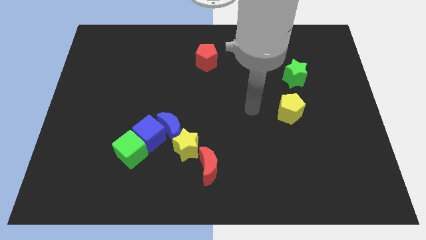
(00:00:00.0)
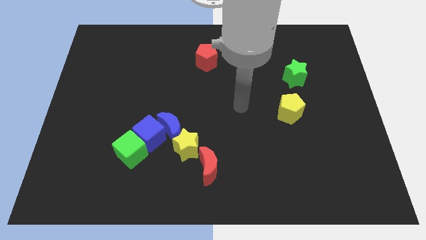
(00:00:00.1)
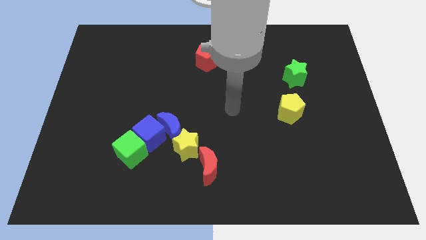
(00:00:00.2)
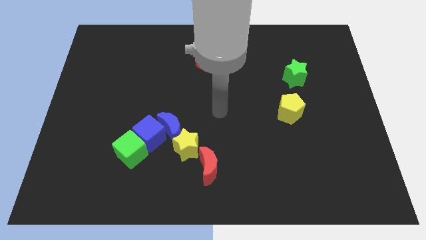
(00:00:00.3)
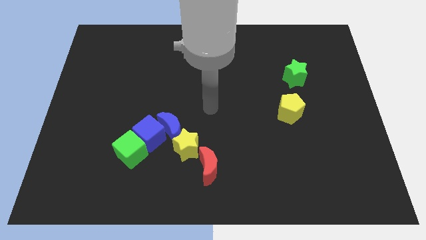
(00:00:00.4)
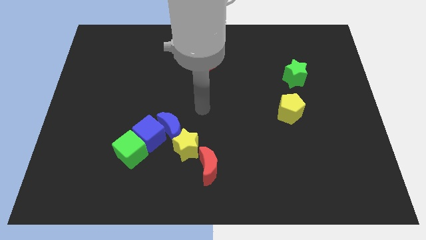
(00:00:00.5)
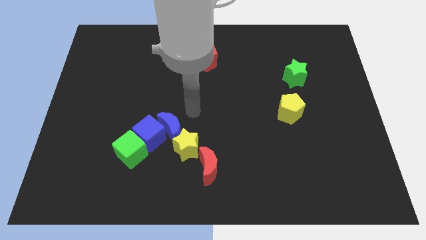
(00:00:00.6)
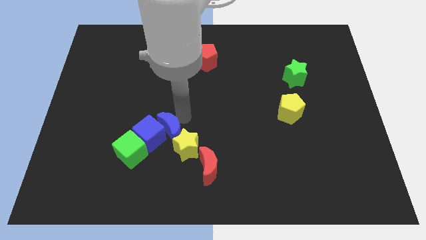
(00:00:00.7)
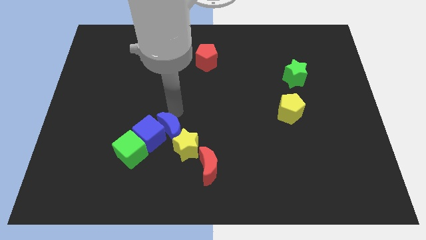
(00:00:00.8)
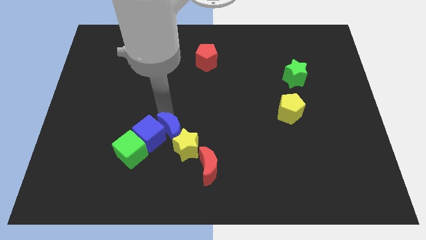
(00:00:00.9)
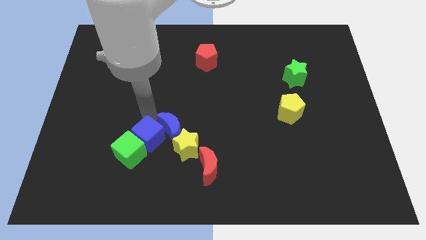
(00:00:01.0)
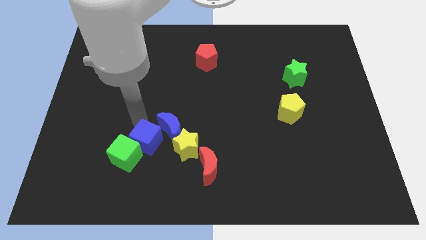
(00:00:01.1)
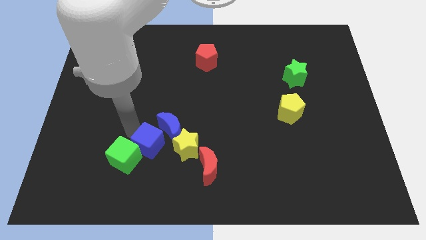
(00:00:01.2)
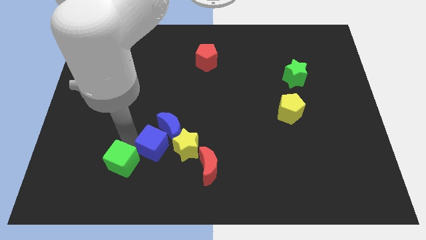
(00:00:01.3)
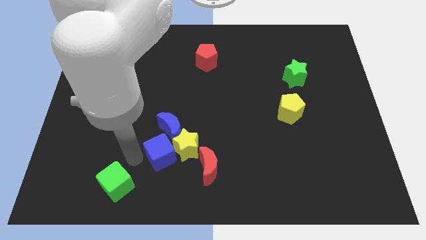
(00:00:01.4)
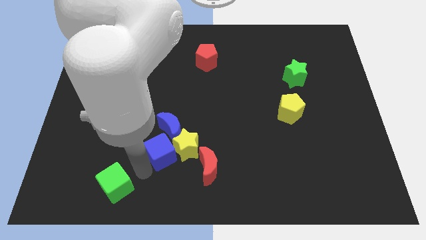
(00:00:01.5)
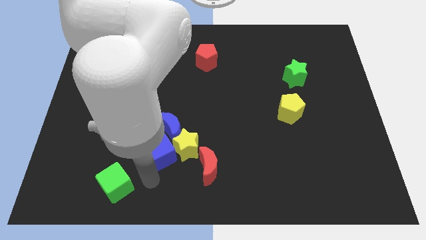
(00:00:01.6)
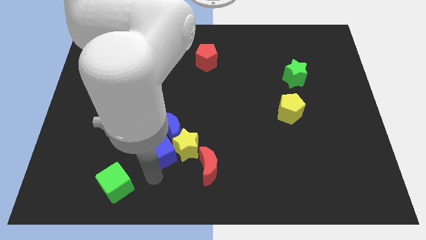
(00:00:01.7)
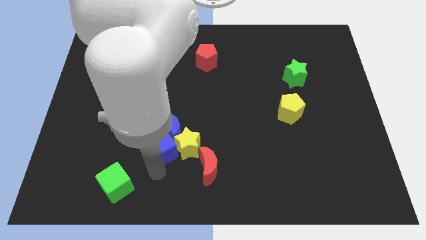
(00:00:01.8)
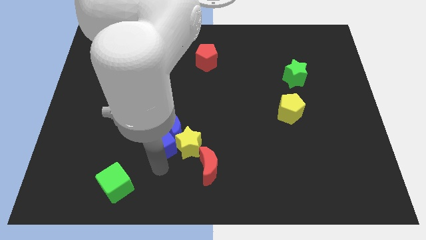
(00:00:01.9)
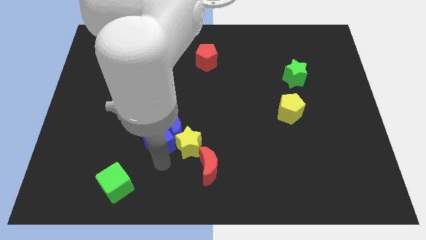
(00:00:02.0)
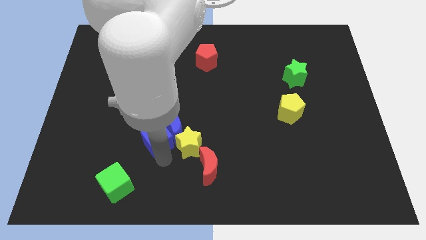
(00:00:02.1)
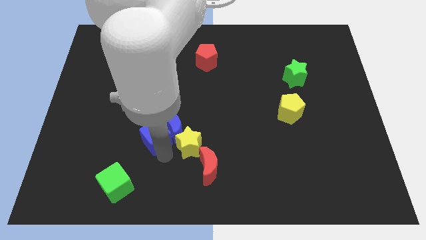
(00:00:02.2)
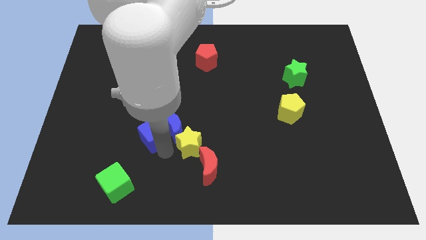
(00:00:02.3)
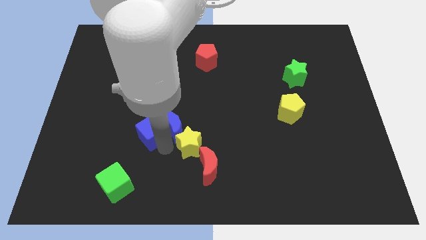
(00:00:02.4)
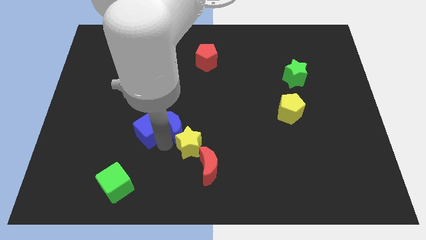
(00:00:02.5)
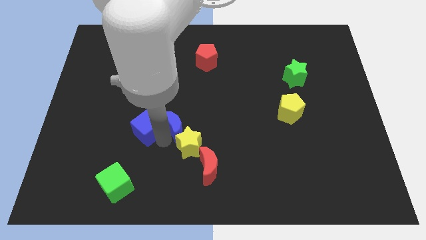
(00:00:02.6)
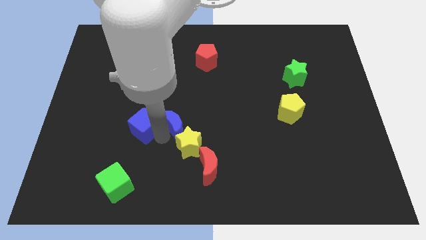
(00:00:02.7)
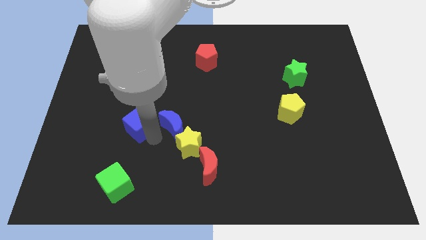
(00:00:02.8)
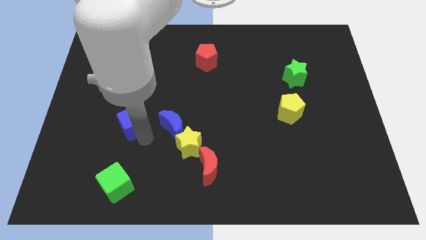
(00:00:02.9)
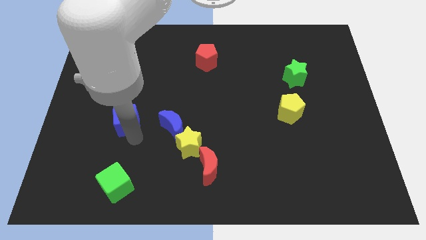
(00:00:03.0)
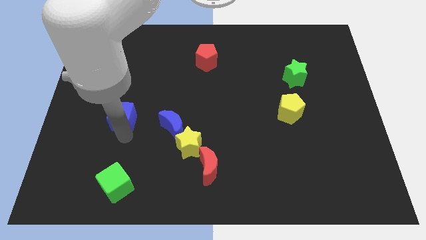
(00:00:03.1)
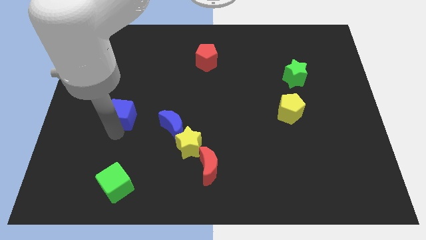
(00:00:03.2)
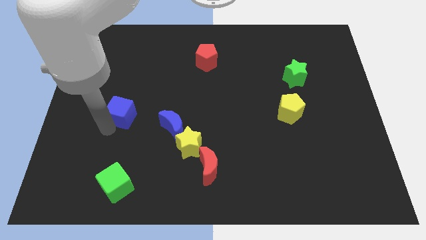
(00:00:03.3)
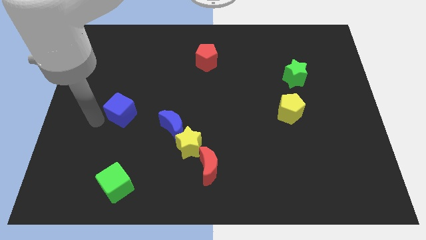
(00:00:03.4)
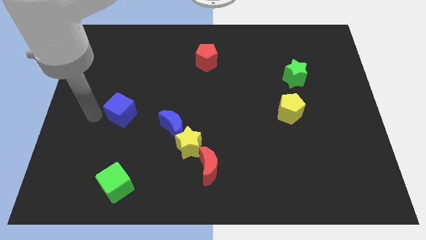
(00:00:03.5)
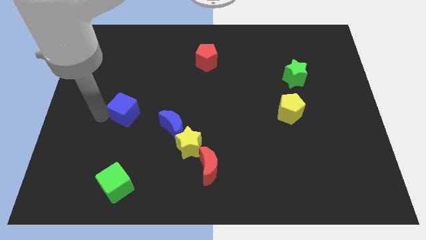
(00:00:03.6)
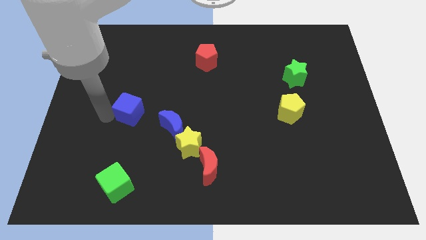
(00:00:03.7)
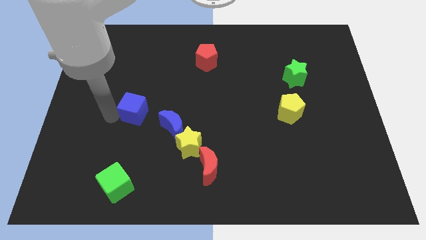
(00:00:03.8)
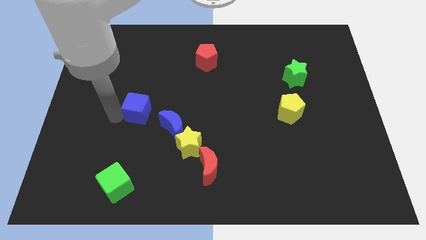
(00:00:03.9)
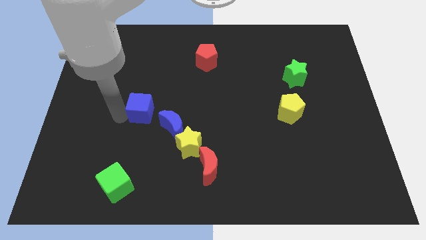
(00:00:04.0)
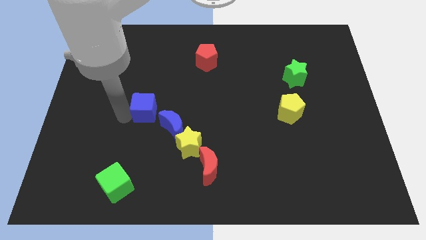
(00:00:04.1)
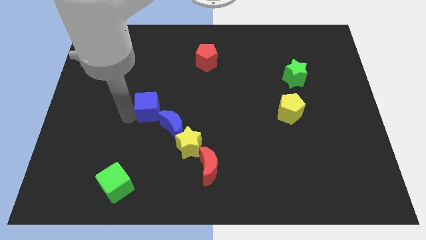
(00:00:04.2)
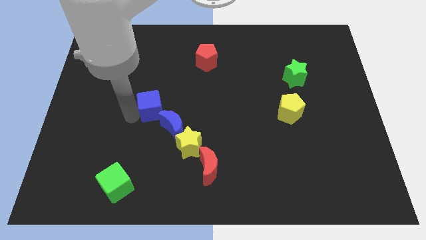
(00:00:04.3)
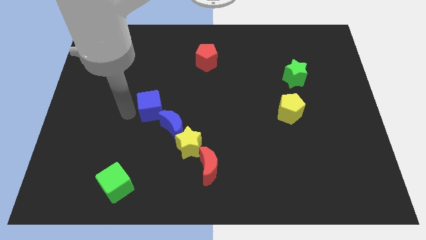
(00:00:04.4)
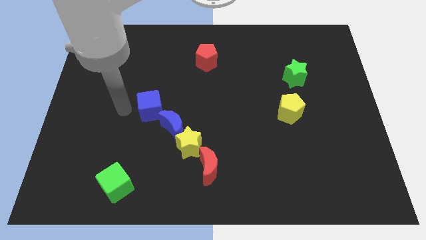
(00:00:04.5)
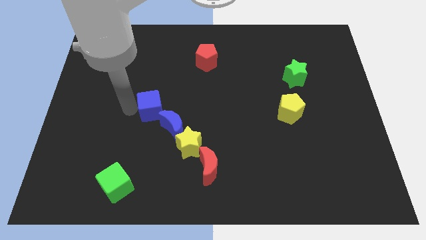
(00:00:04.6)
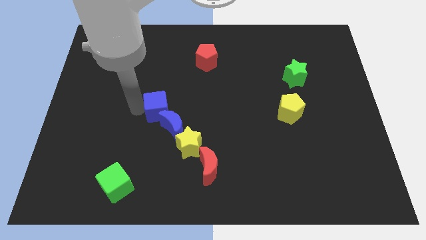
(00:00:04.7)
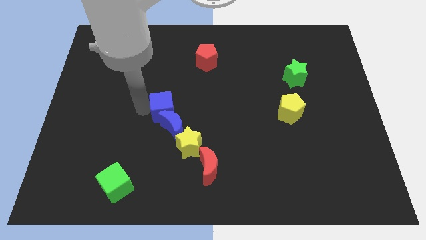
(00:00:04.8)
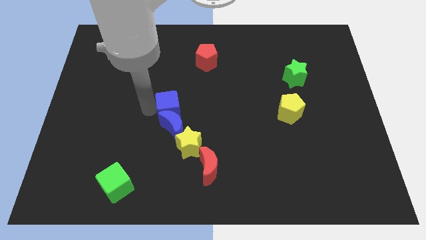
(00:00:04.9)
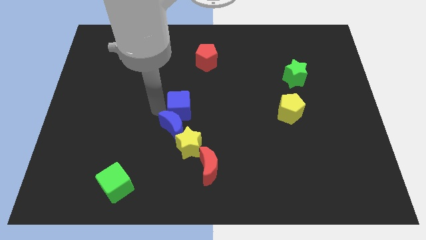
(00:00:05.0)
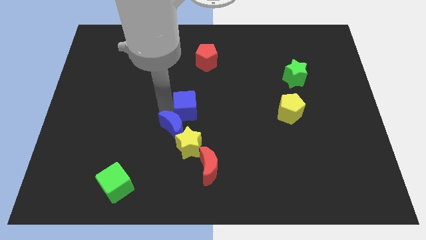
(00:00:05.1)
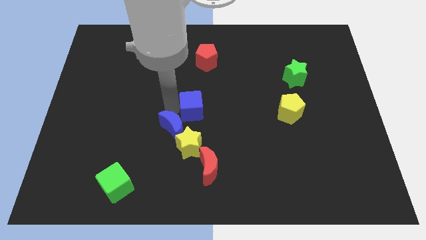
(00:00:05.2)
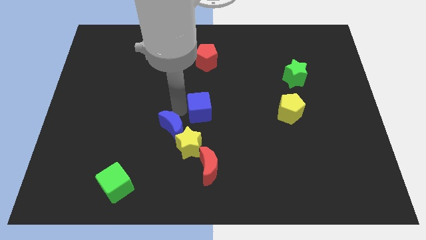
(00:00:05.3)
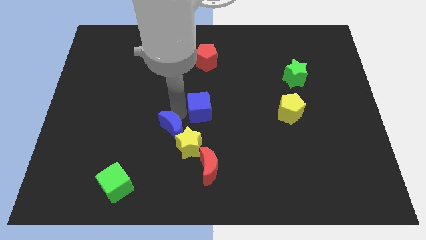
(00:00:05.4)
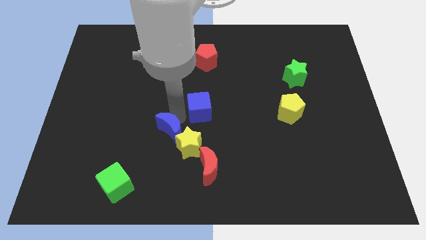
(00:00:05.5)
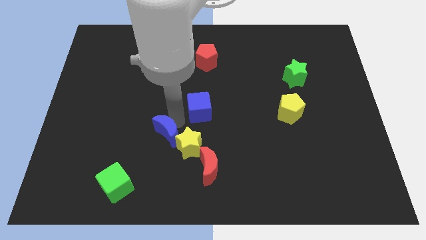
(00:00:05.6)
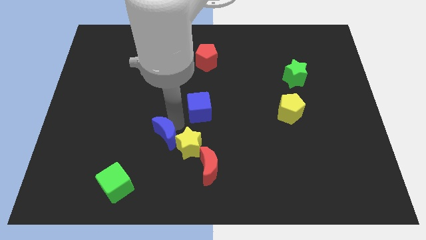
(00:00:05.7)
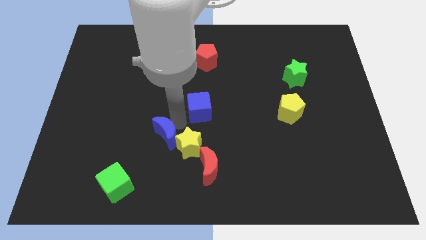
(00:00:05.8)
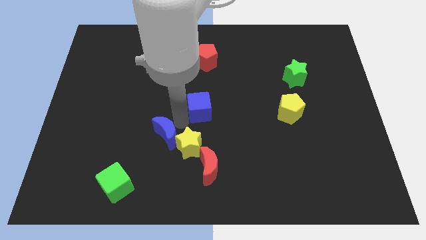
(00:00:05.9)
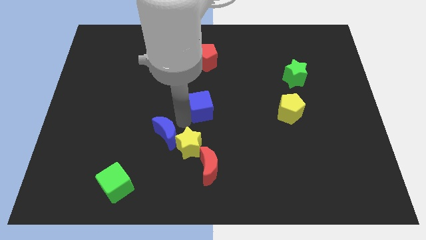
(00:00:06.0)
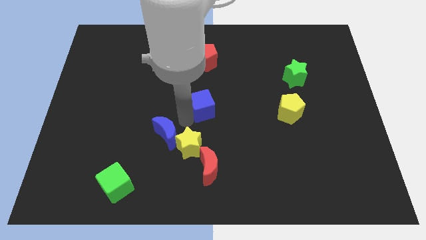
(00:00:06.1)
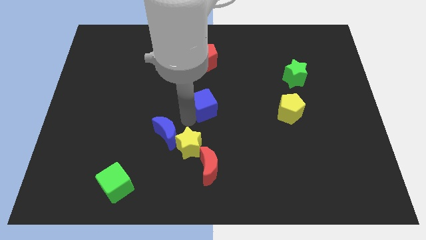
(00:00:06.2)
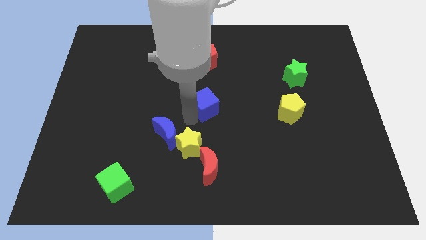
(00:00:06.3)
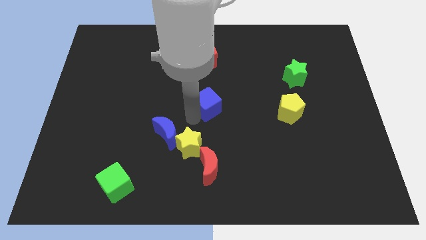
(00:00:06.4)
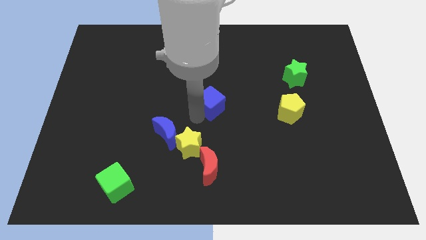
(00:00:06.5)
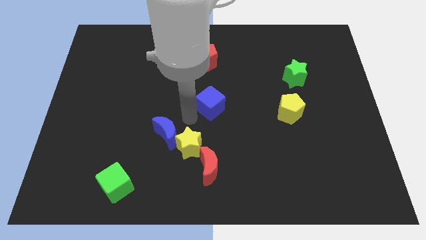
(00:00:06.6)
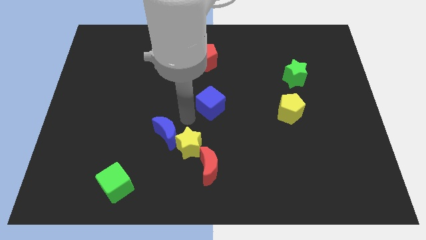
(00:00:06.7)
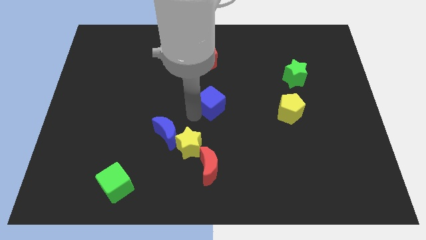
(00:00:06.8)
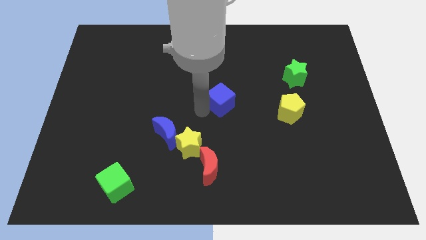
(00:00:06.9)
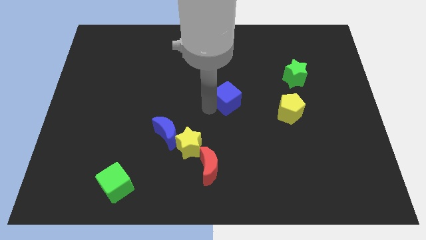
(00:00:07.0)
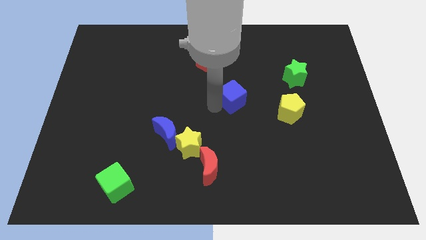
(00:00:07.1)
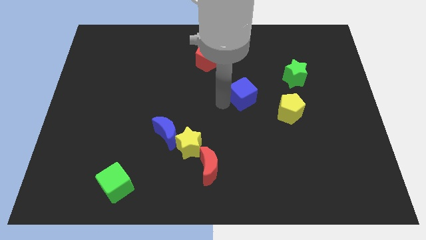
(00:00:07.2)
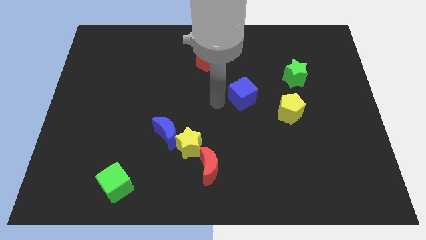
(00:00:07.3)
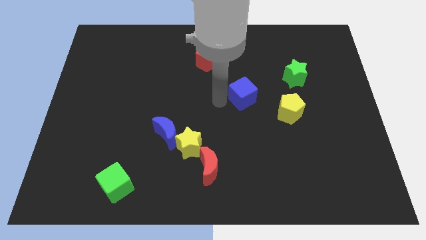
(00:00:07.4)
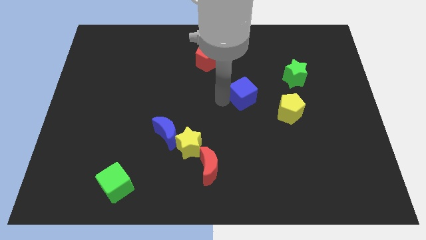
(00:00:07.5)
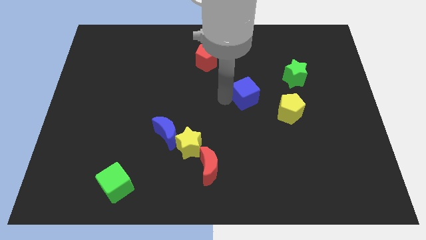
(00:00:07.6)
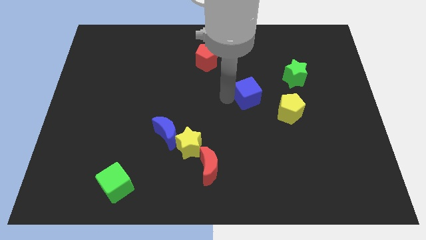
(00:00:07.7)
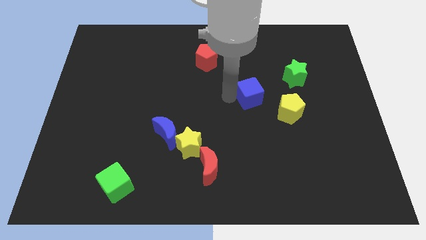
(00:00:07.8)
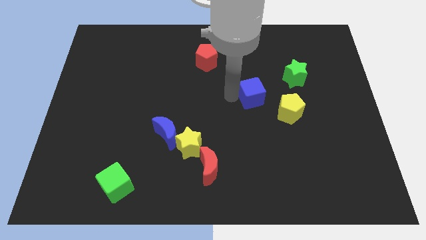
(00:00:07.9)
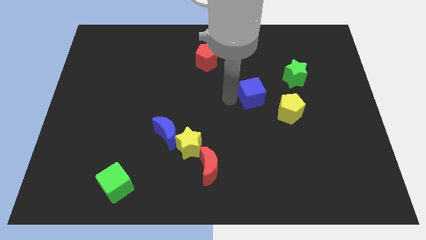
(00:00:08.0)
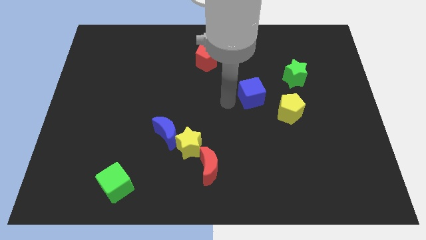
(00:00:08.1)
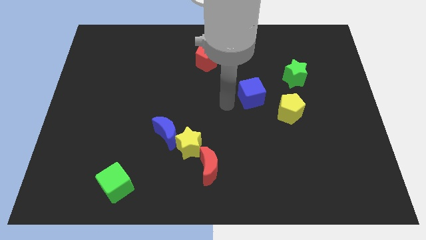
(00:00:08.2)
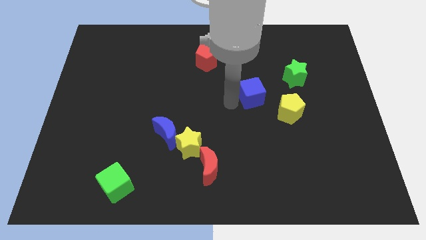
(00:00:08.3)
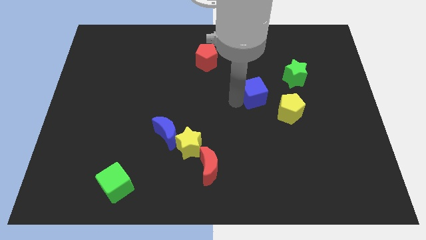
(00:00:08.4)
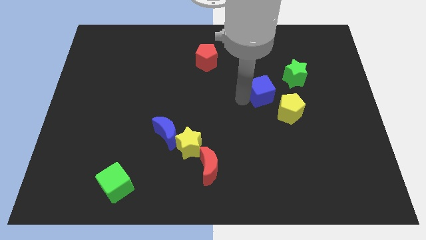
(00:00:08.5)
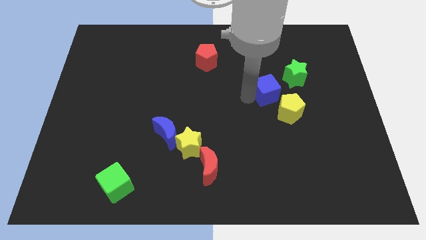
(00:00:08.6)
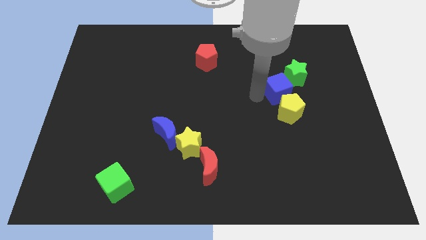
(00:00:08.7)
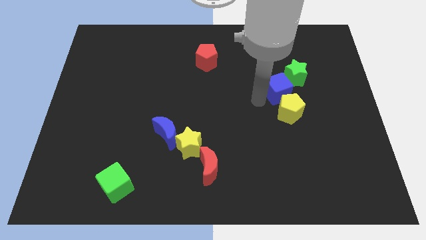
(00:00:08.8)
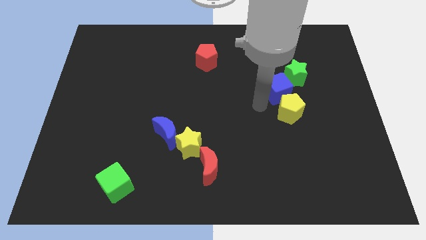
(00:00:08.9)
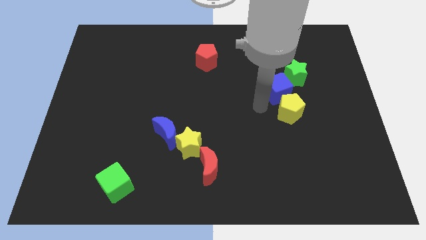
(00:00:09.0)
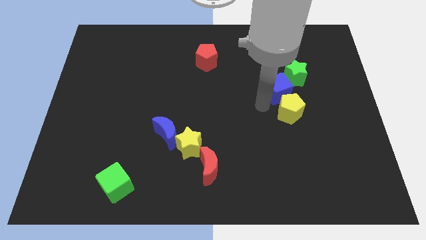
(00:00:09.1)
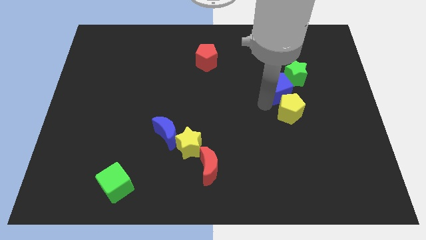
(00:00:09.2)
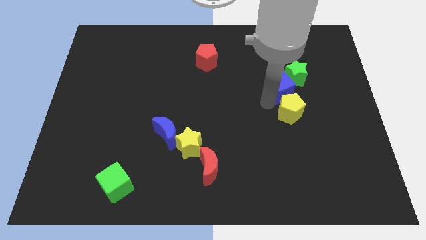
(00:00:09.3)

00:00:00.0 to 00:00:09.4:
push the blue cube towards the green star
